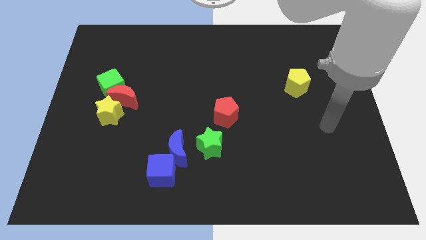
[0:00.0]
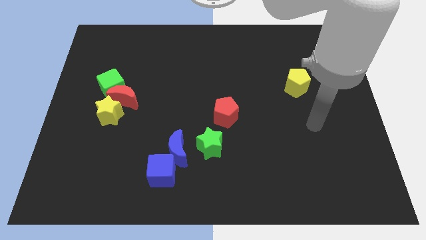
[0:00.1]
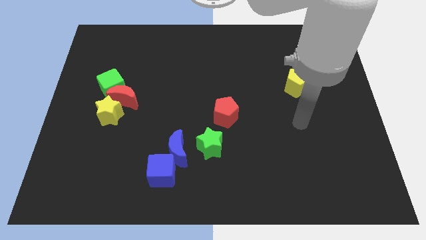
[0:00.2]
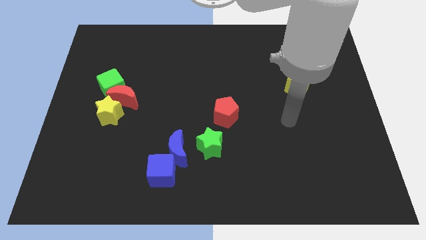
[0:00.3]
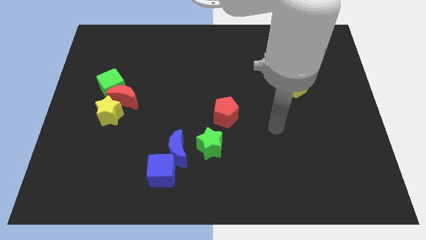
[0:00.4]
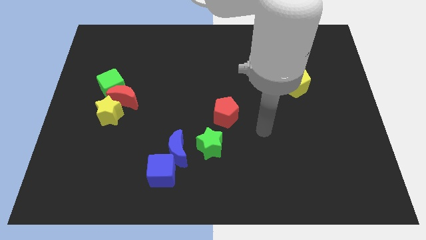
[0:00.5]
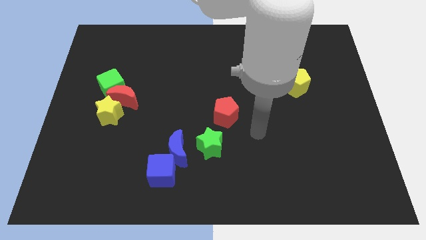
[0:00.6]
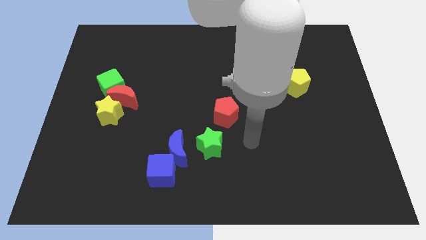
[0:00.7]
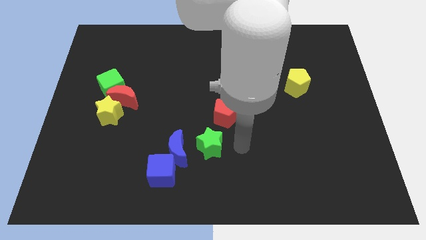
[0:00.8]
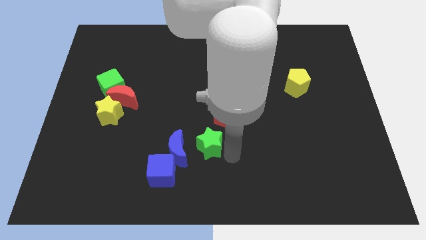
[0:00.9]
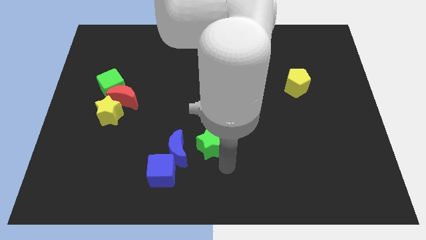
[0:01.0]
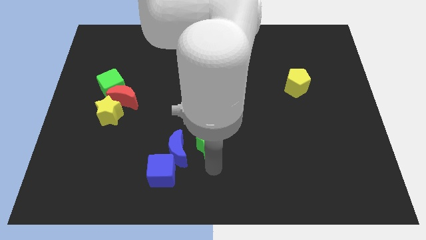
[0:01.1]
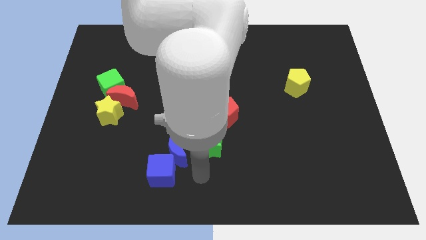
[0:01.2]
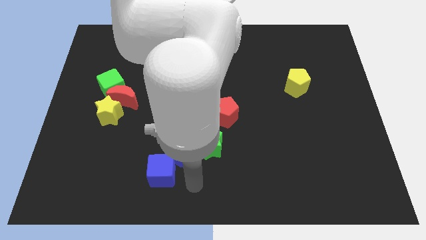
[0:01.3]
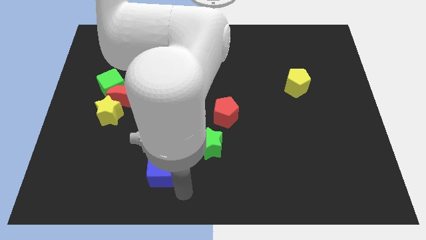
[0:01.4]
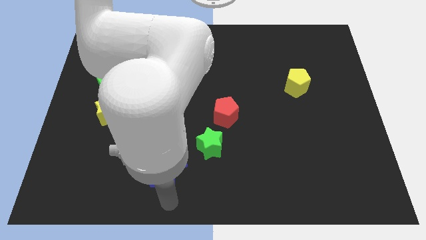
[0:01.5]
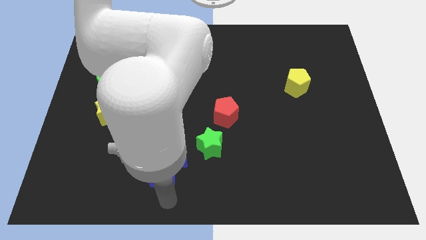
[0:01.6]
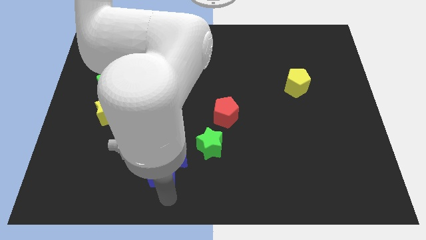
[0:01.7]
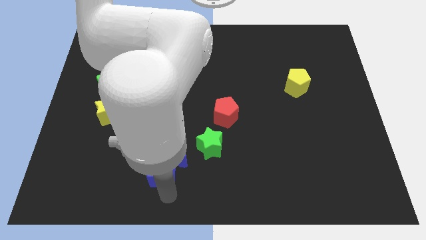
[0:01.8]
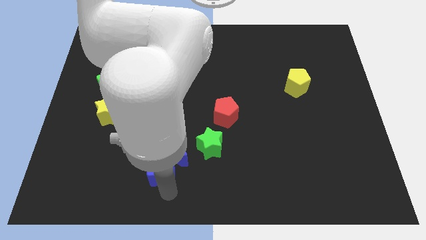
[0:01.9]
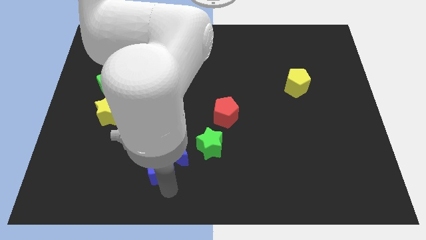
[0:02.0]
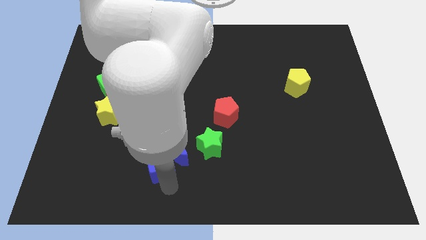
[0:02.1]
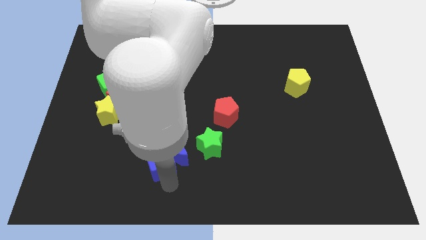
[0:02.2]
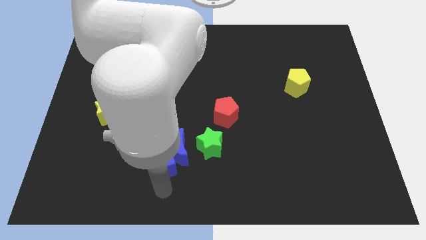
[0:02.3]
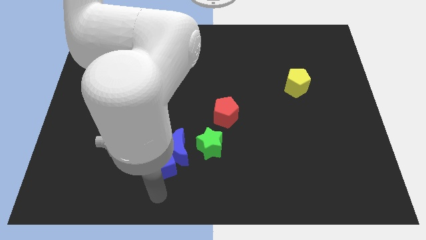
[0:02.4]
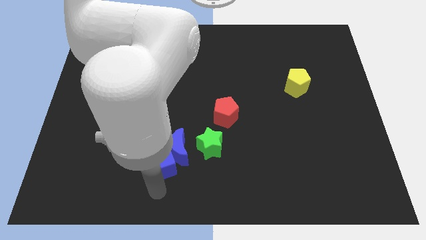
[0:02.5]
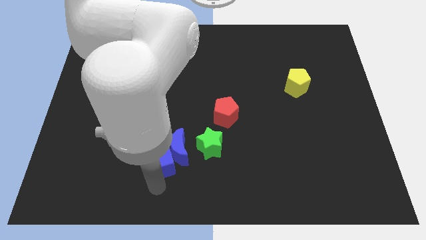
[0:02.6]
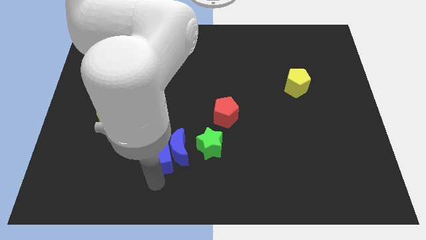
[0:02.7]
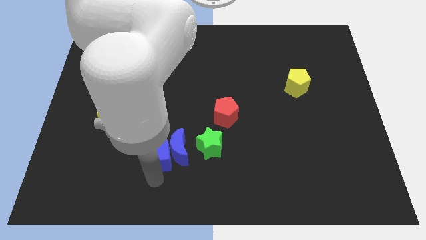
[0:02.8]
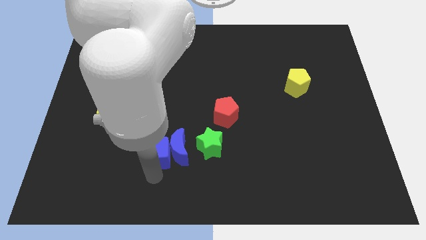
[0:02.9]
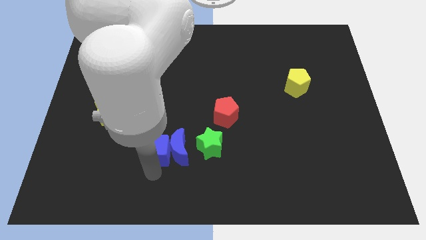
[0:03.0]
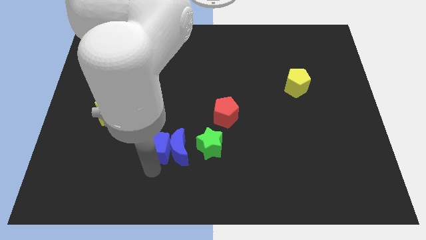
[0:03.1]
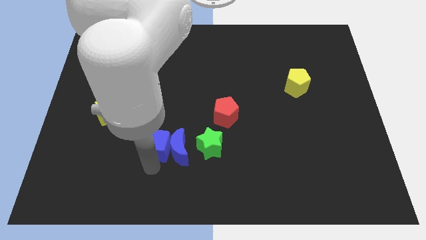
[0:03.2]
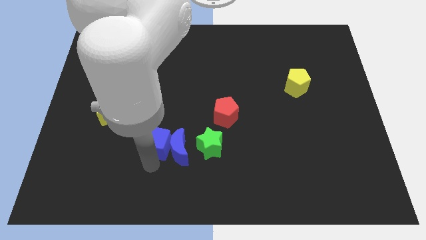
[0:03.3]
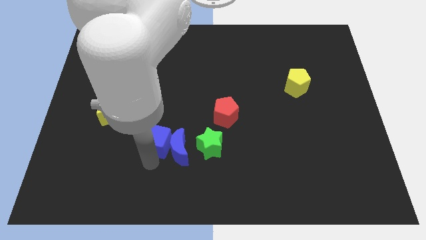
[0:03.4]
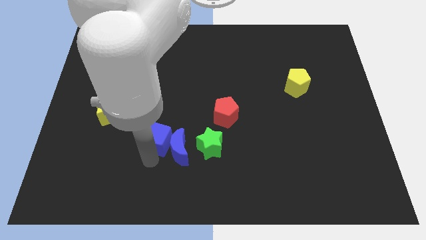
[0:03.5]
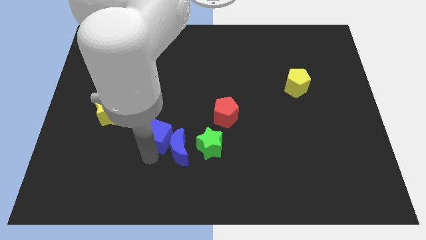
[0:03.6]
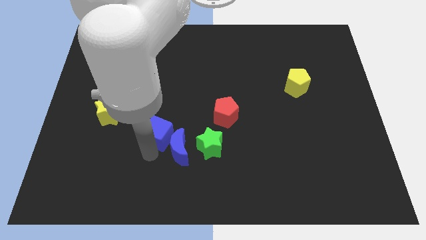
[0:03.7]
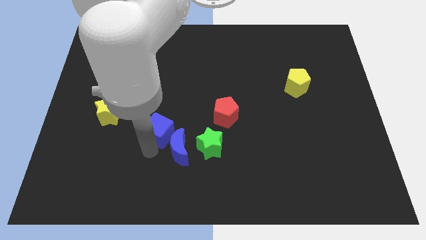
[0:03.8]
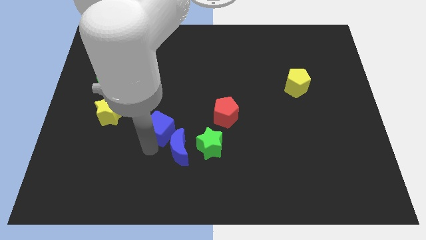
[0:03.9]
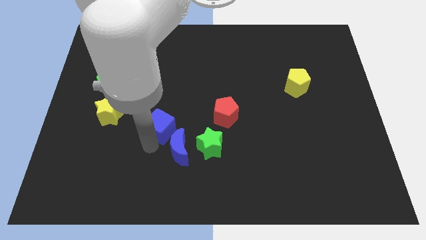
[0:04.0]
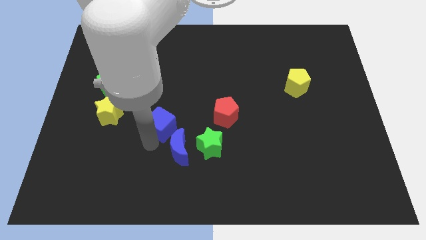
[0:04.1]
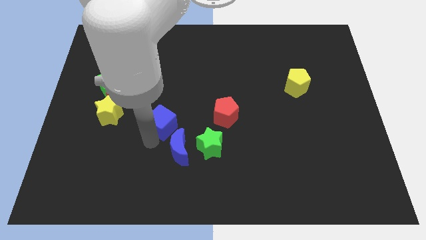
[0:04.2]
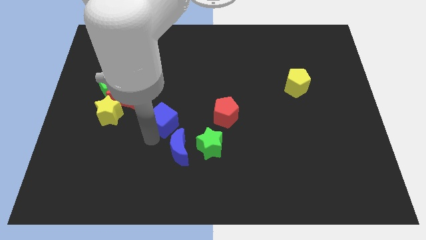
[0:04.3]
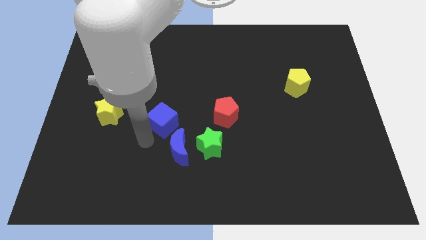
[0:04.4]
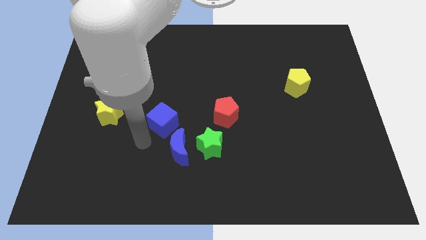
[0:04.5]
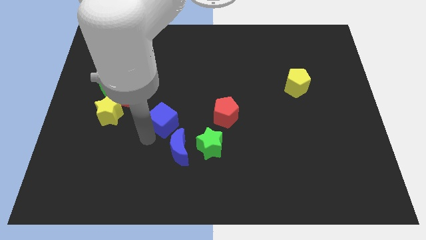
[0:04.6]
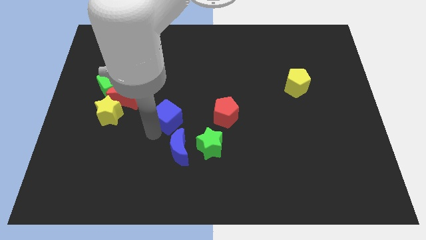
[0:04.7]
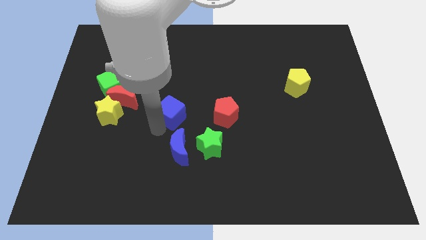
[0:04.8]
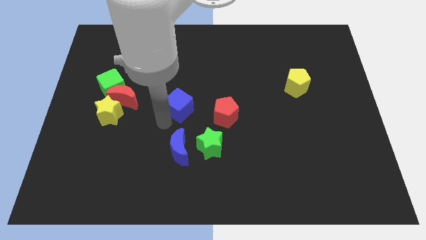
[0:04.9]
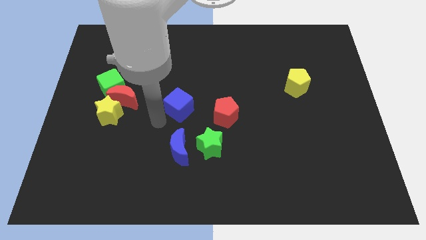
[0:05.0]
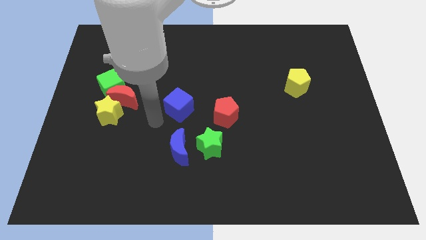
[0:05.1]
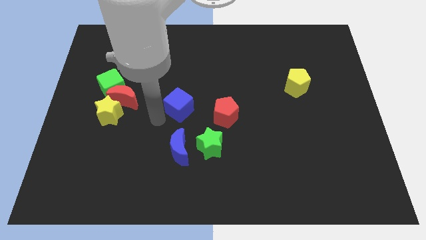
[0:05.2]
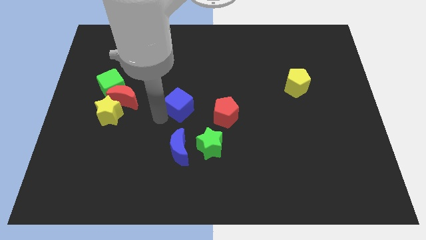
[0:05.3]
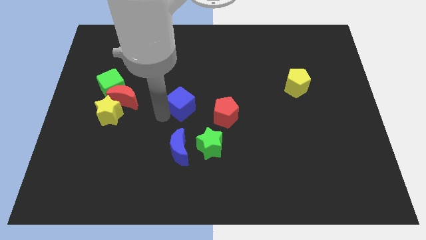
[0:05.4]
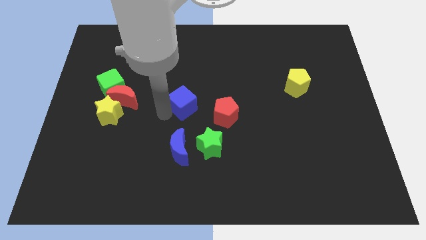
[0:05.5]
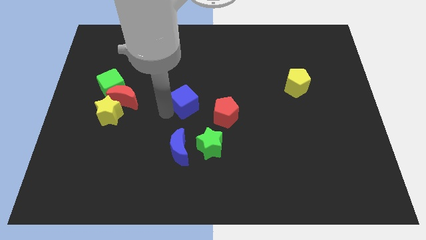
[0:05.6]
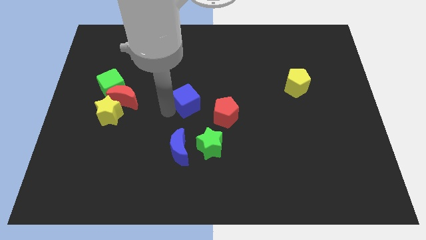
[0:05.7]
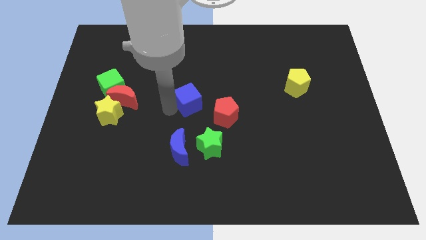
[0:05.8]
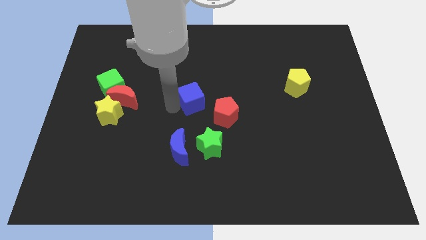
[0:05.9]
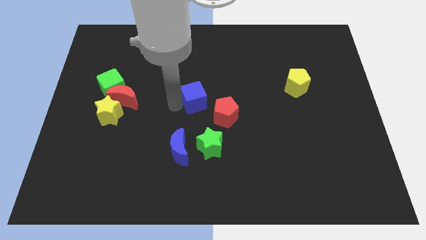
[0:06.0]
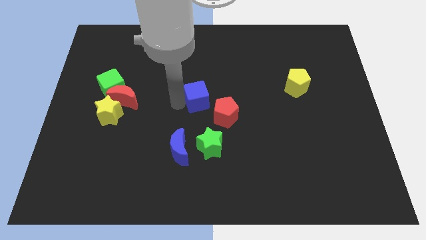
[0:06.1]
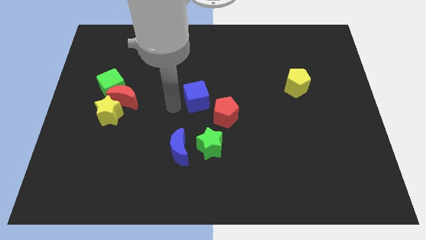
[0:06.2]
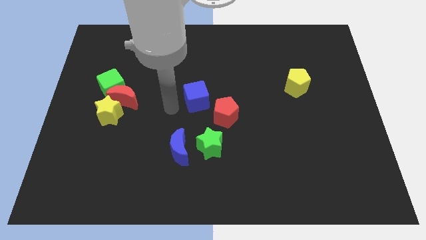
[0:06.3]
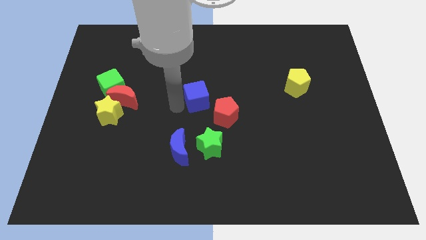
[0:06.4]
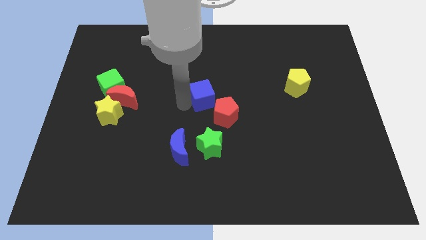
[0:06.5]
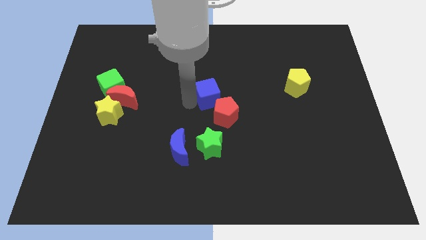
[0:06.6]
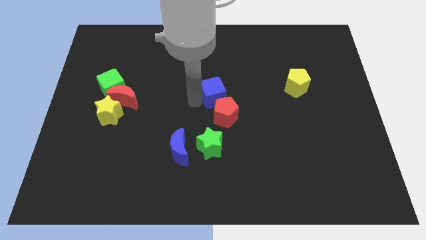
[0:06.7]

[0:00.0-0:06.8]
move the blue cube upwards and right diagonally

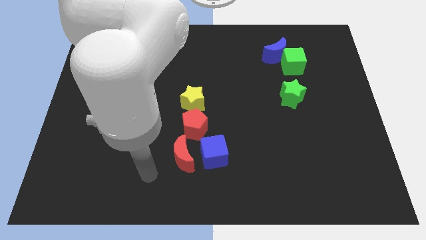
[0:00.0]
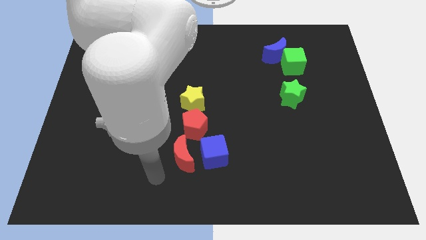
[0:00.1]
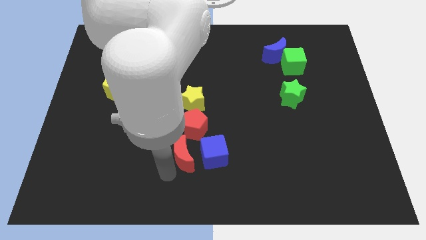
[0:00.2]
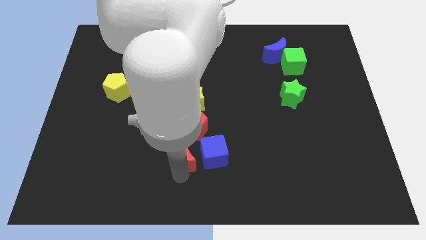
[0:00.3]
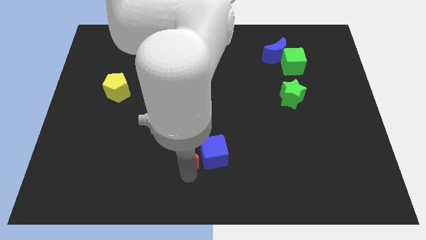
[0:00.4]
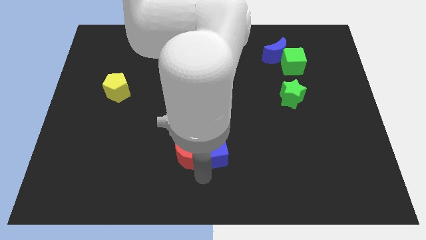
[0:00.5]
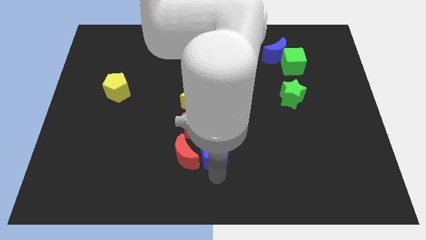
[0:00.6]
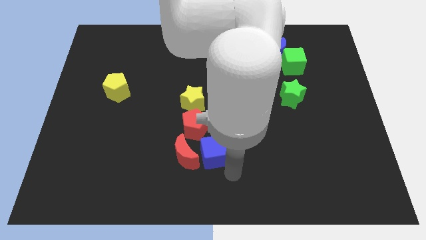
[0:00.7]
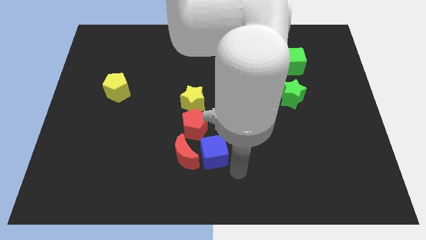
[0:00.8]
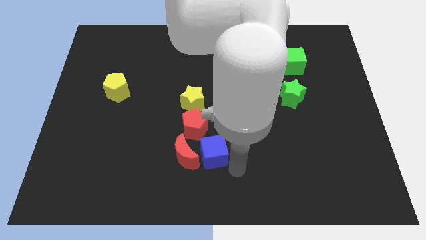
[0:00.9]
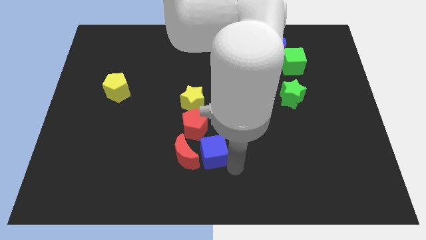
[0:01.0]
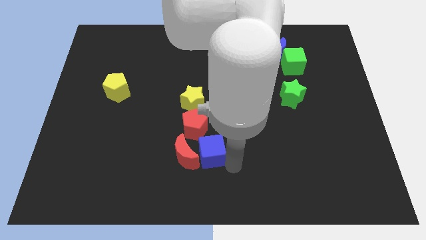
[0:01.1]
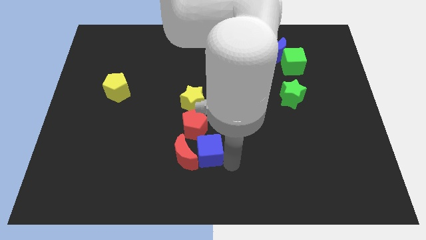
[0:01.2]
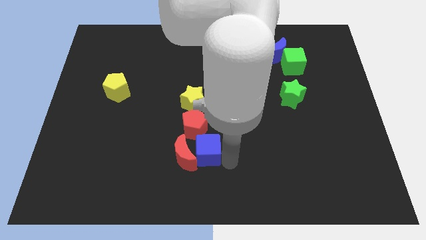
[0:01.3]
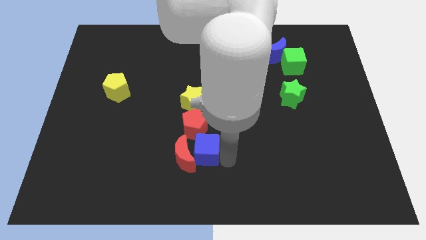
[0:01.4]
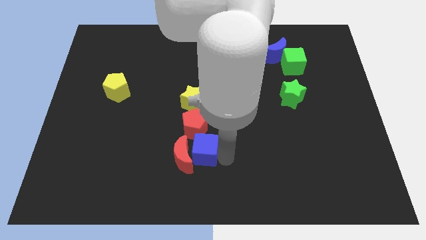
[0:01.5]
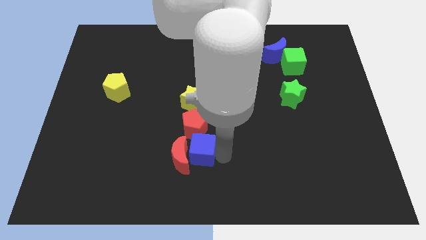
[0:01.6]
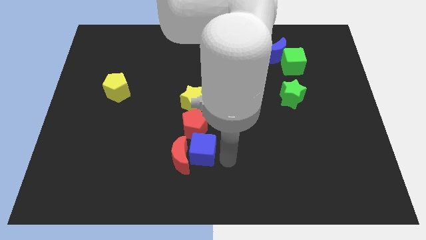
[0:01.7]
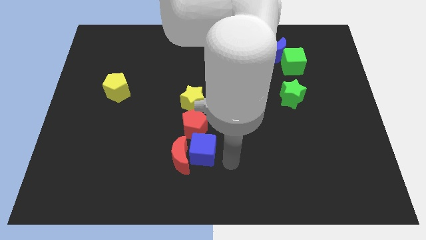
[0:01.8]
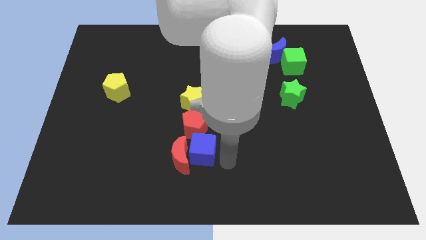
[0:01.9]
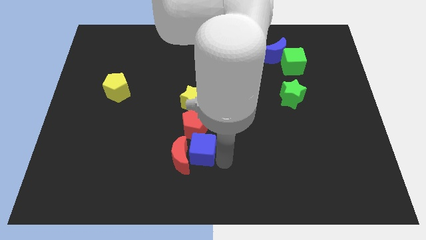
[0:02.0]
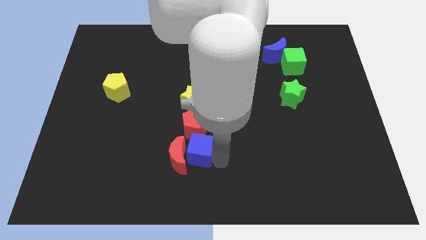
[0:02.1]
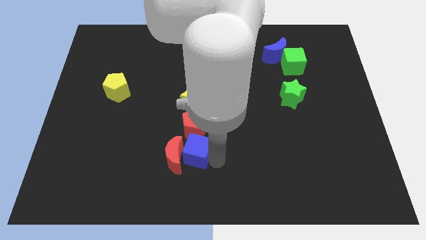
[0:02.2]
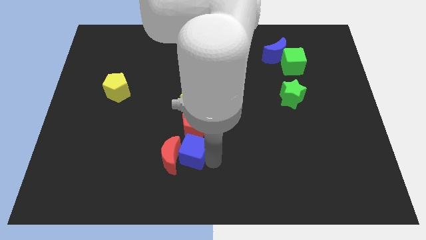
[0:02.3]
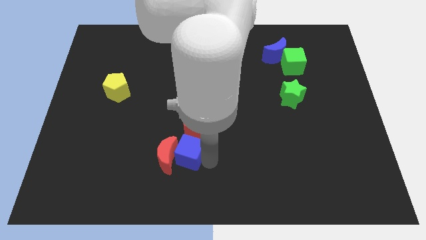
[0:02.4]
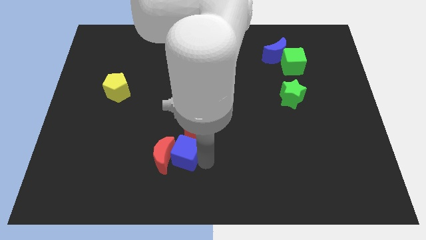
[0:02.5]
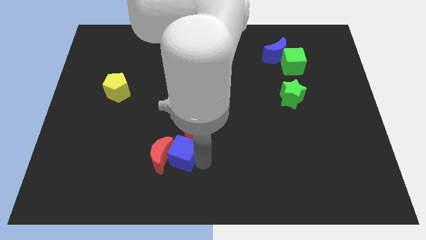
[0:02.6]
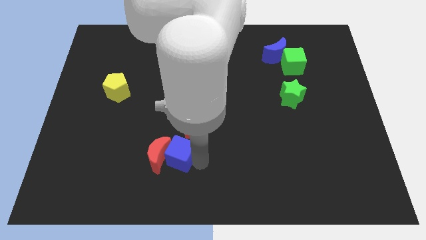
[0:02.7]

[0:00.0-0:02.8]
slightly move the blue cube left
